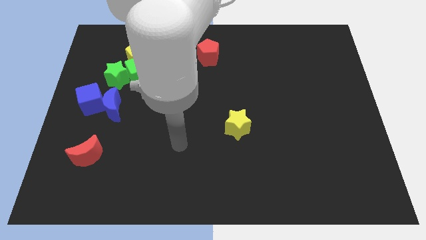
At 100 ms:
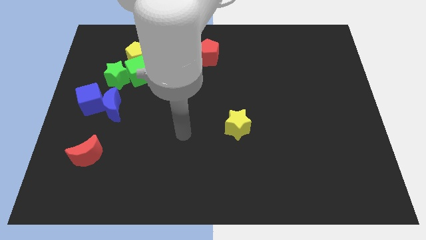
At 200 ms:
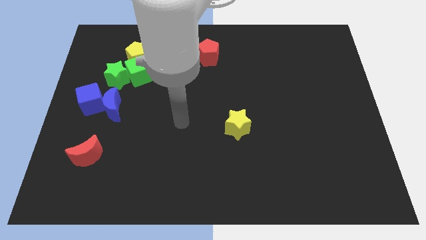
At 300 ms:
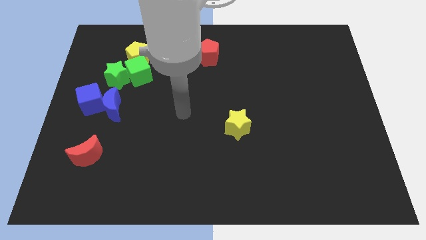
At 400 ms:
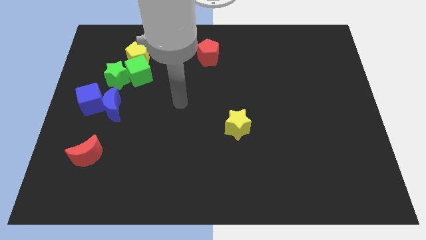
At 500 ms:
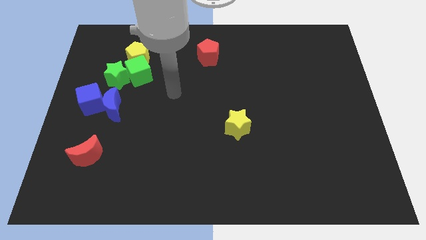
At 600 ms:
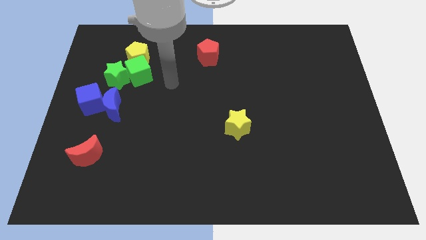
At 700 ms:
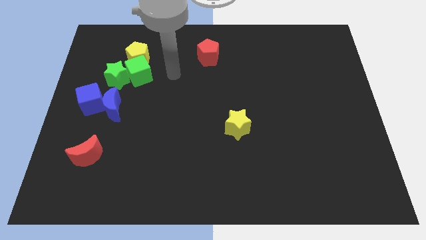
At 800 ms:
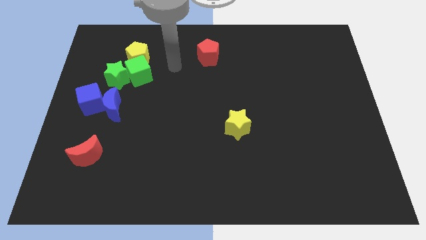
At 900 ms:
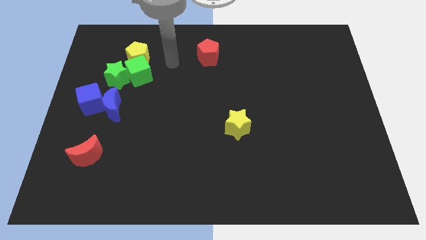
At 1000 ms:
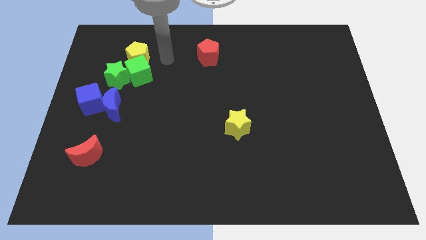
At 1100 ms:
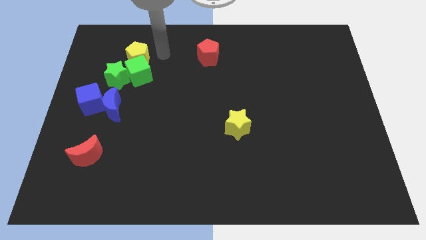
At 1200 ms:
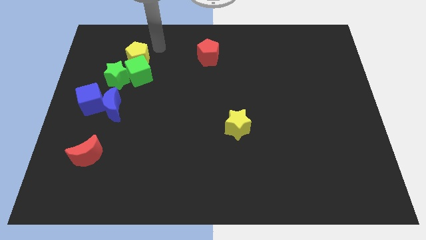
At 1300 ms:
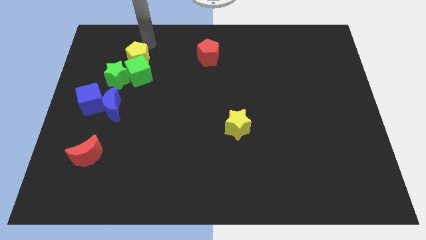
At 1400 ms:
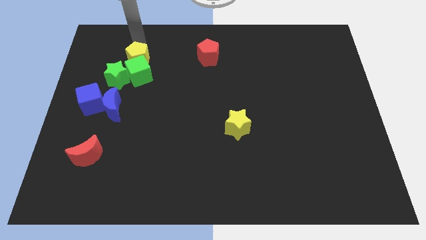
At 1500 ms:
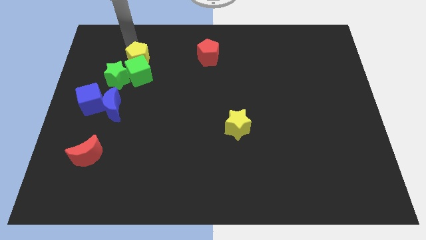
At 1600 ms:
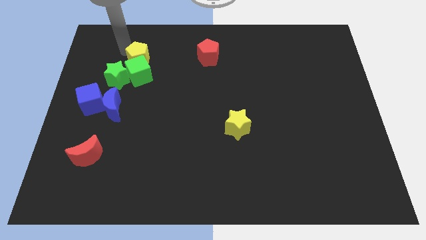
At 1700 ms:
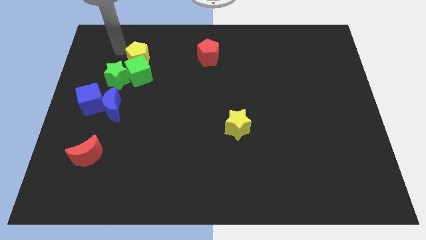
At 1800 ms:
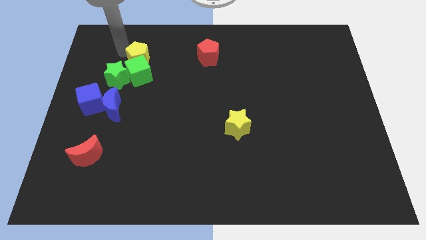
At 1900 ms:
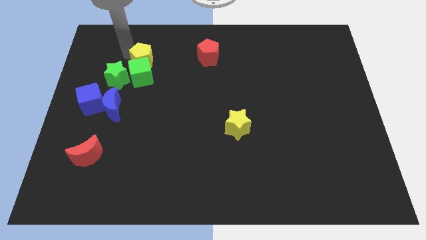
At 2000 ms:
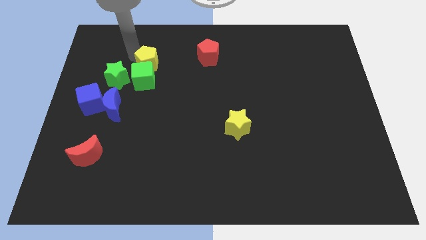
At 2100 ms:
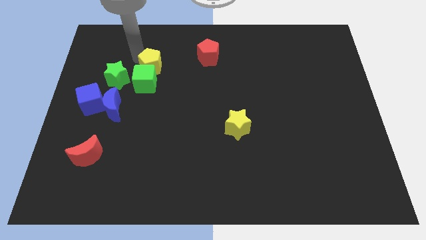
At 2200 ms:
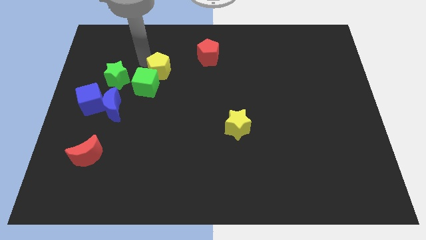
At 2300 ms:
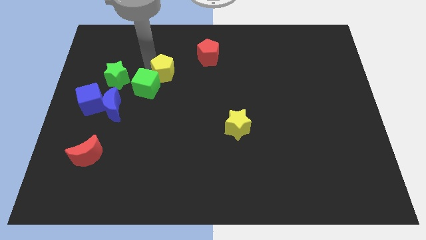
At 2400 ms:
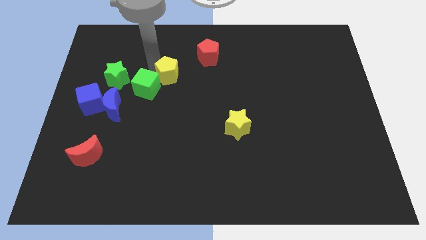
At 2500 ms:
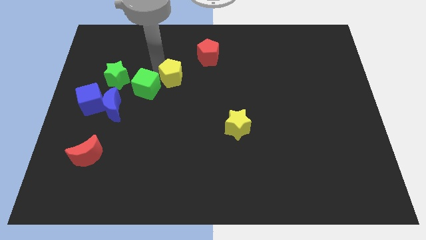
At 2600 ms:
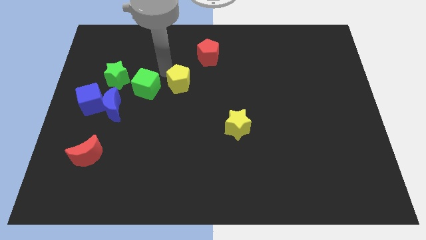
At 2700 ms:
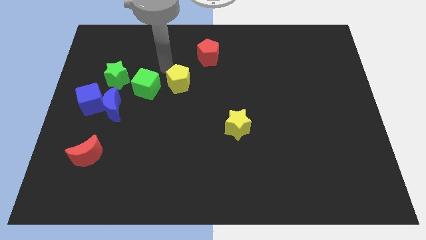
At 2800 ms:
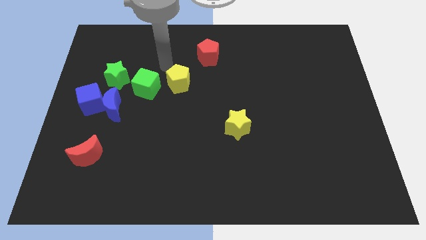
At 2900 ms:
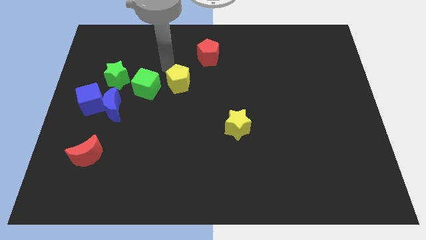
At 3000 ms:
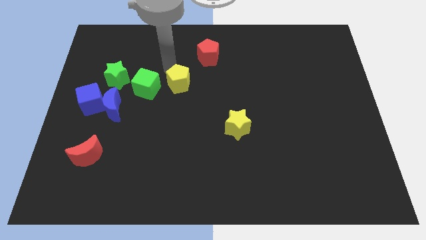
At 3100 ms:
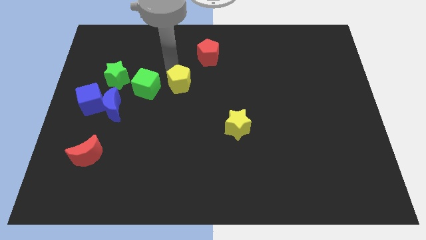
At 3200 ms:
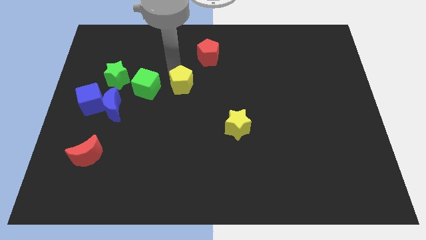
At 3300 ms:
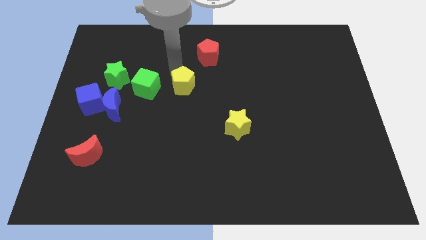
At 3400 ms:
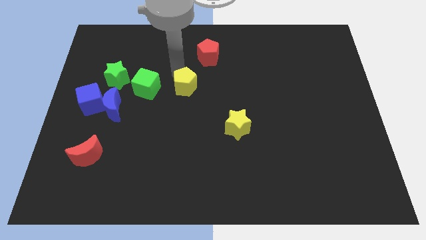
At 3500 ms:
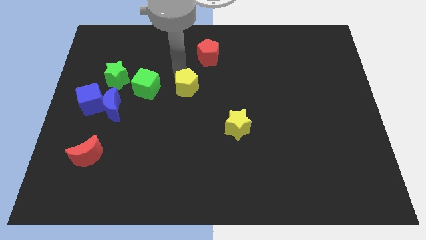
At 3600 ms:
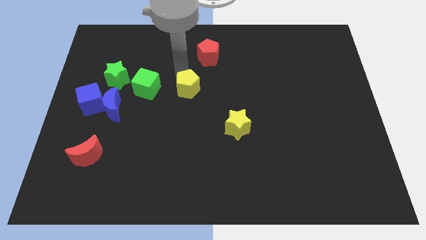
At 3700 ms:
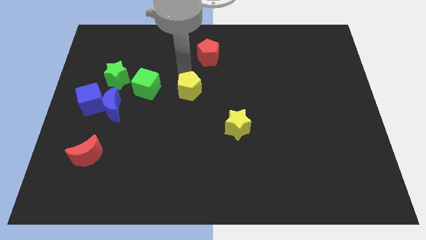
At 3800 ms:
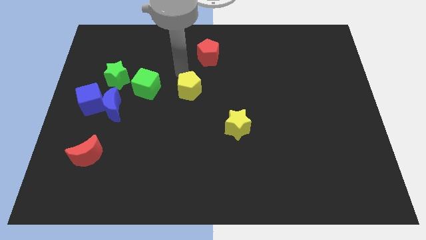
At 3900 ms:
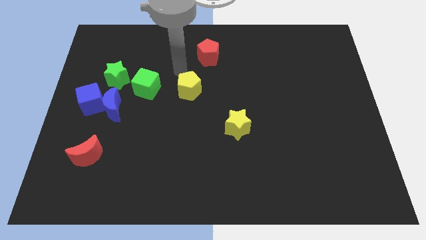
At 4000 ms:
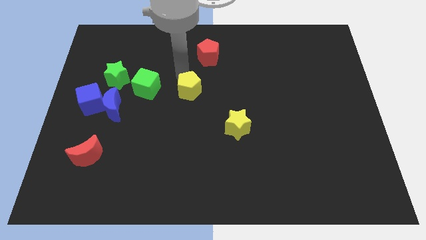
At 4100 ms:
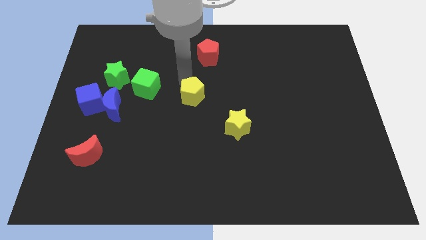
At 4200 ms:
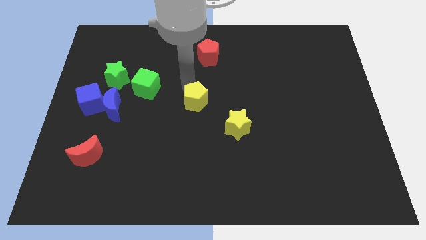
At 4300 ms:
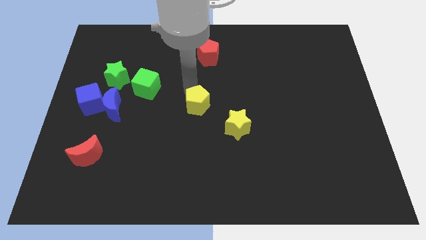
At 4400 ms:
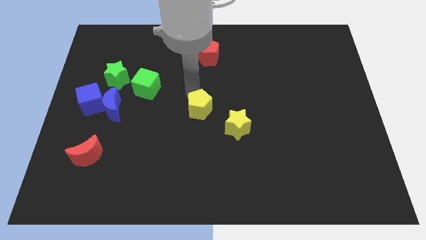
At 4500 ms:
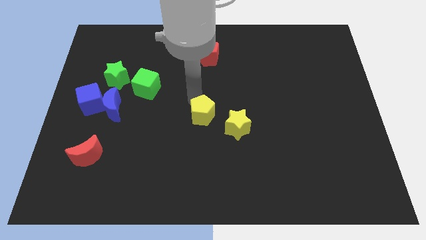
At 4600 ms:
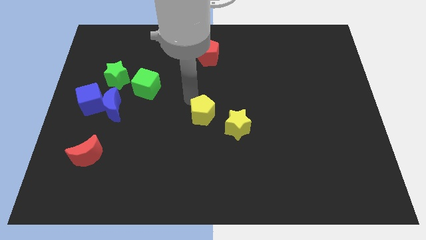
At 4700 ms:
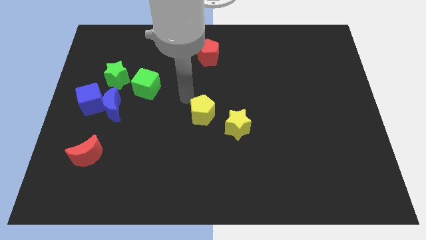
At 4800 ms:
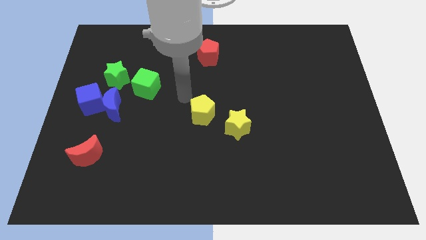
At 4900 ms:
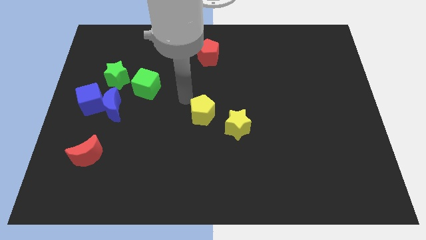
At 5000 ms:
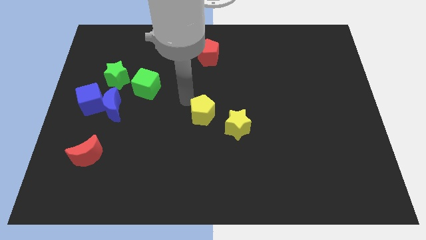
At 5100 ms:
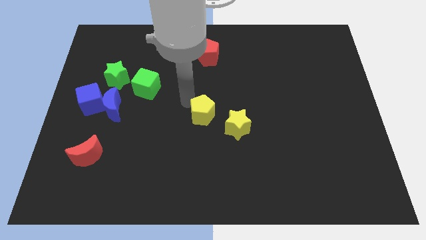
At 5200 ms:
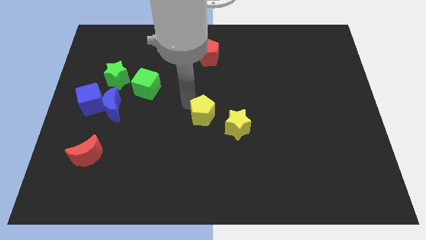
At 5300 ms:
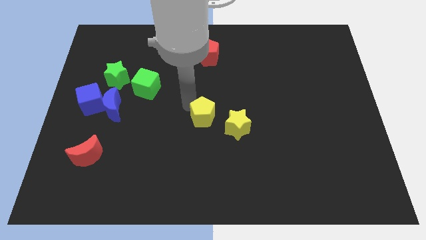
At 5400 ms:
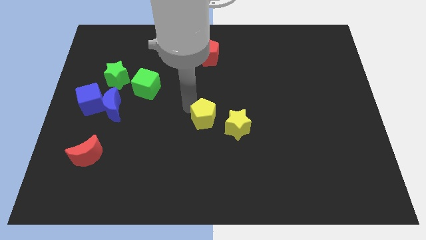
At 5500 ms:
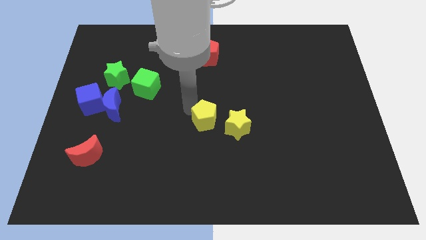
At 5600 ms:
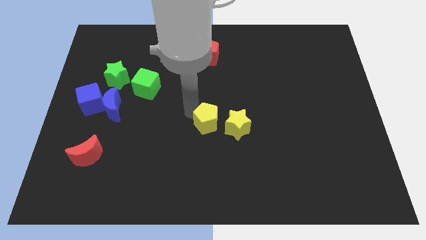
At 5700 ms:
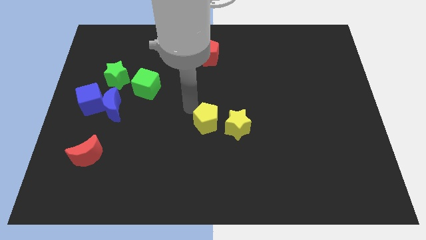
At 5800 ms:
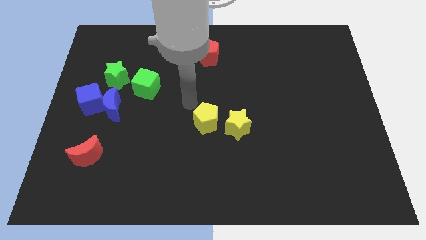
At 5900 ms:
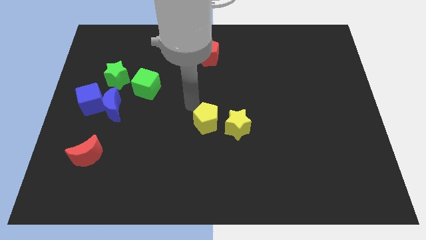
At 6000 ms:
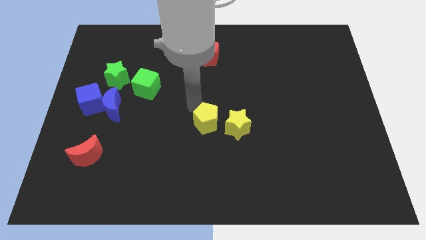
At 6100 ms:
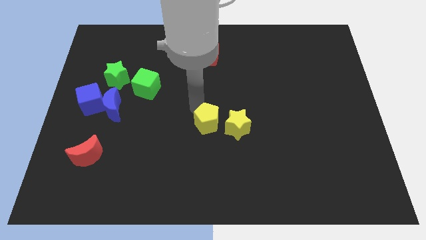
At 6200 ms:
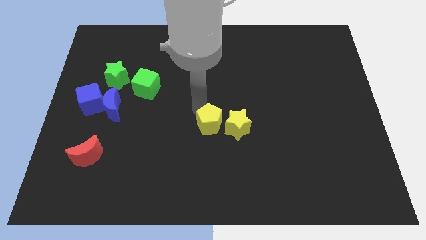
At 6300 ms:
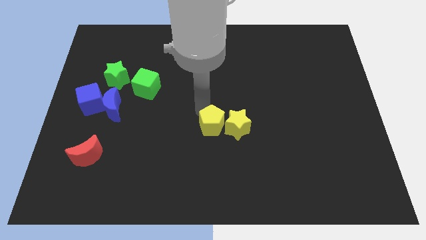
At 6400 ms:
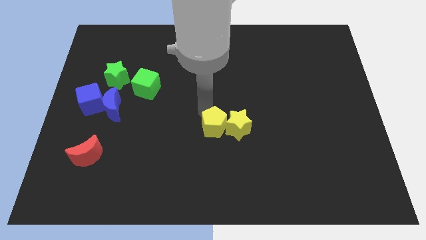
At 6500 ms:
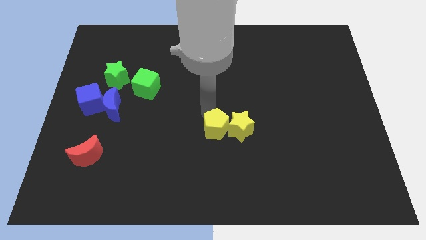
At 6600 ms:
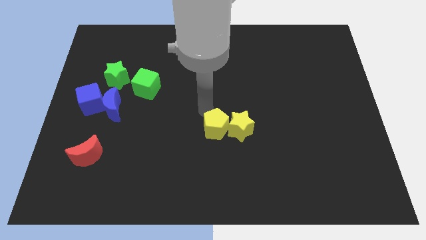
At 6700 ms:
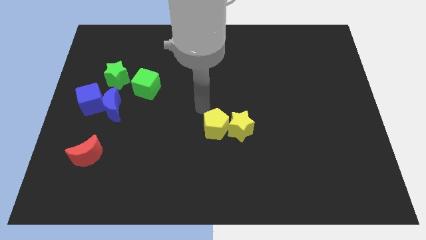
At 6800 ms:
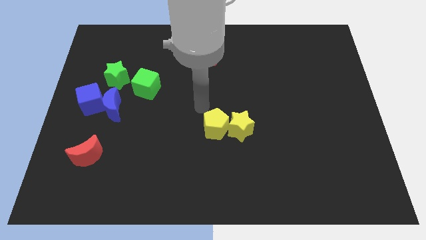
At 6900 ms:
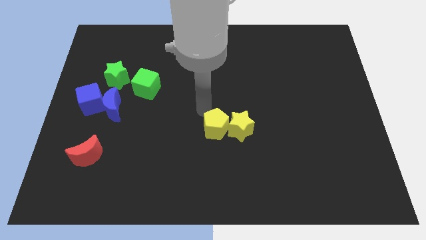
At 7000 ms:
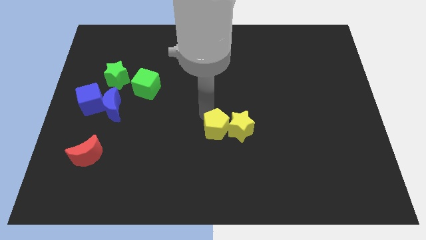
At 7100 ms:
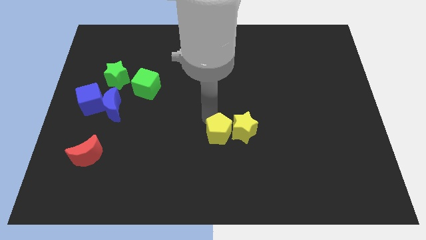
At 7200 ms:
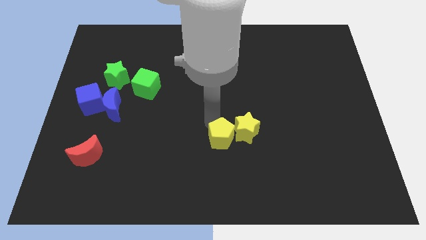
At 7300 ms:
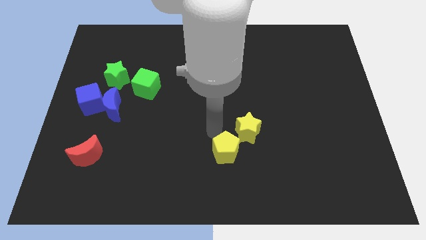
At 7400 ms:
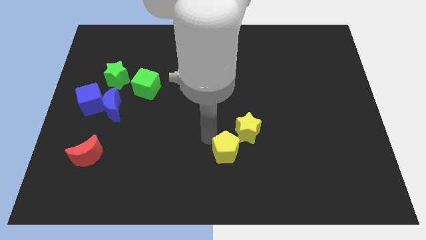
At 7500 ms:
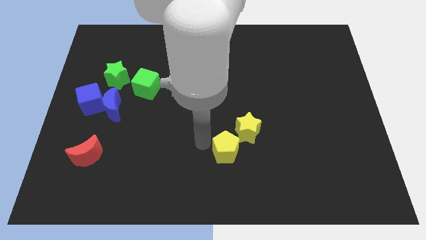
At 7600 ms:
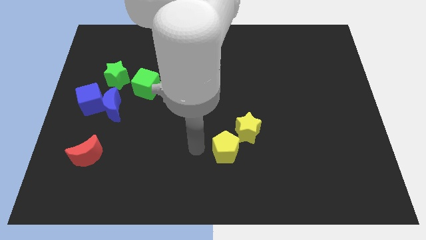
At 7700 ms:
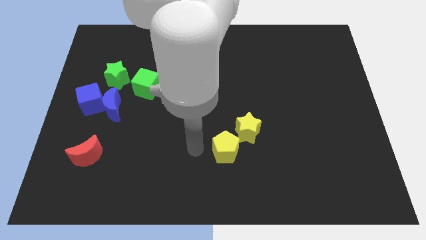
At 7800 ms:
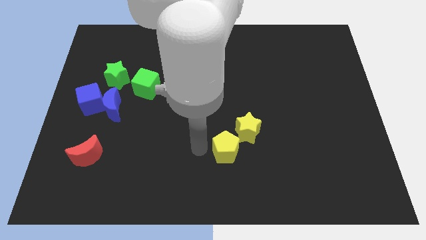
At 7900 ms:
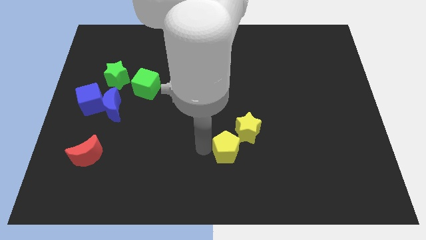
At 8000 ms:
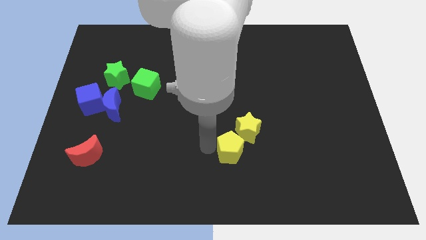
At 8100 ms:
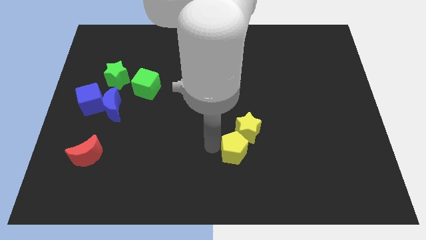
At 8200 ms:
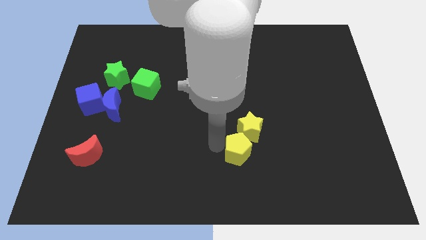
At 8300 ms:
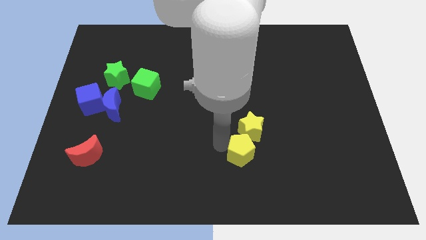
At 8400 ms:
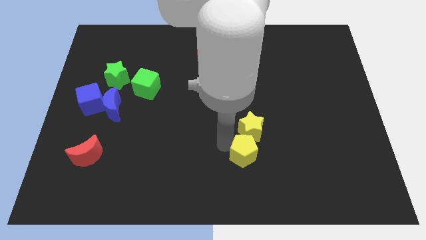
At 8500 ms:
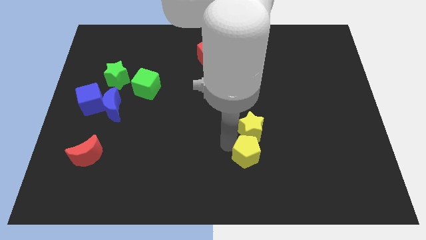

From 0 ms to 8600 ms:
push the yellow pentagon to the bottom right side of the yellow star
